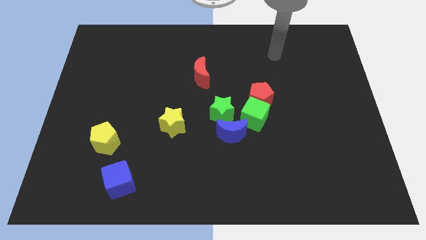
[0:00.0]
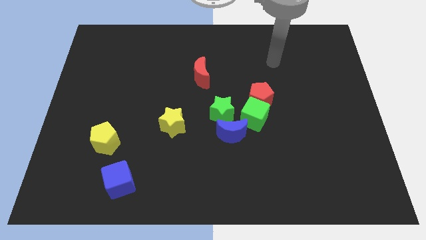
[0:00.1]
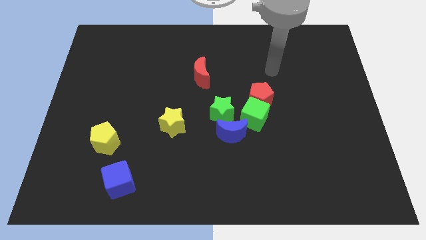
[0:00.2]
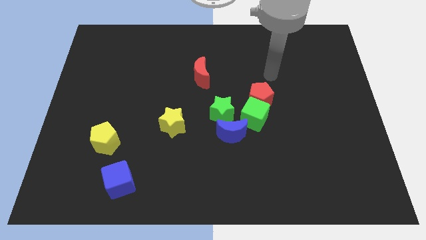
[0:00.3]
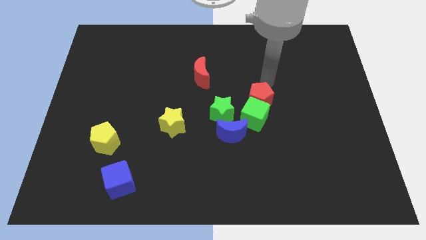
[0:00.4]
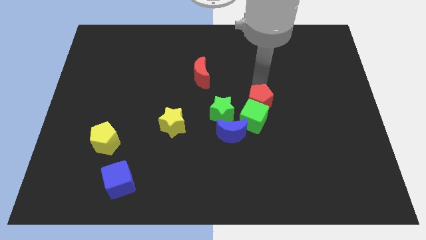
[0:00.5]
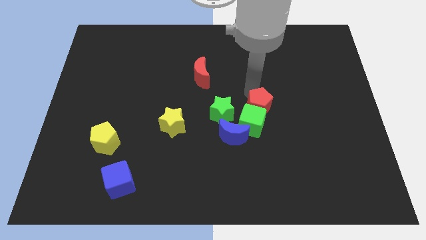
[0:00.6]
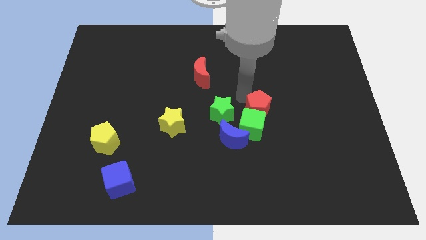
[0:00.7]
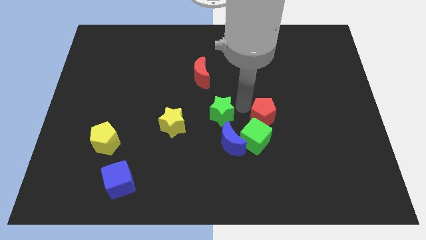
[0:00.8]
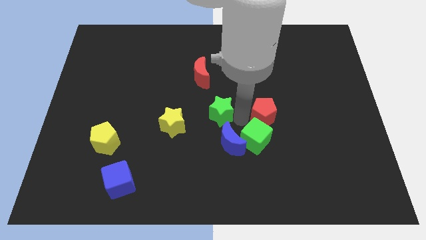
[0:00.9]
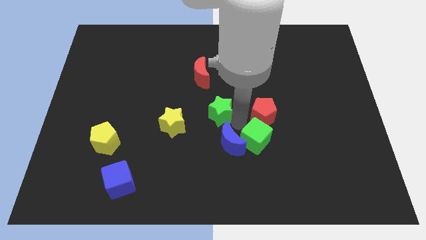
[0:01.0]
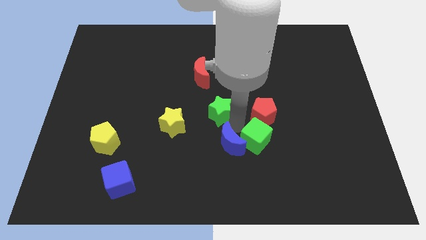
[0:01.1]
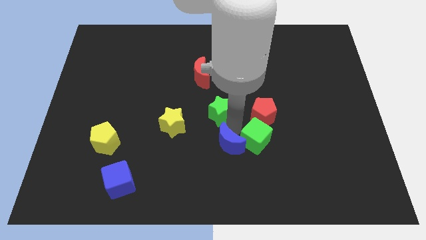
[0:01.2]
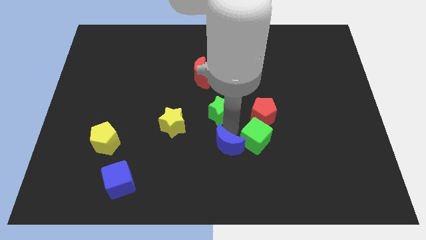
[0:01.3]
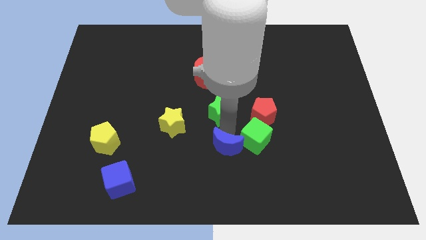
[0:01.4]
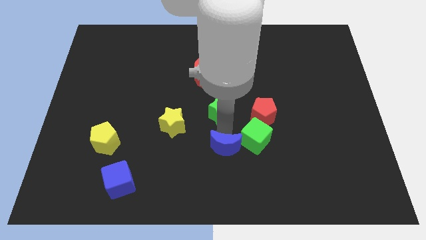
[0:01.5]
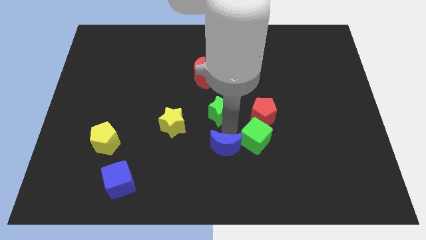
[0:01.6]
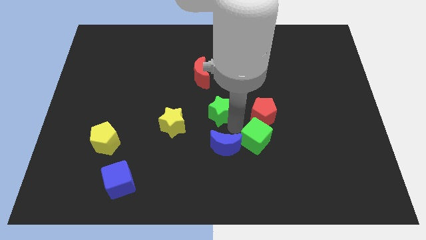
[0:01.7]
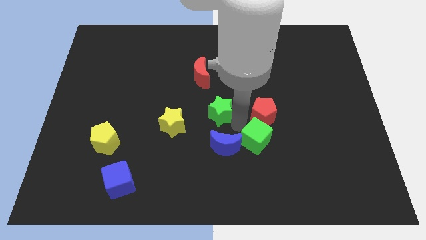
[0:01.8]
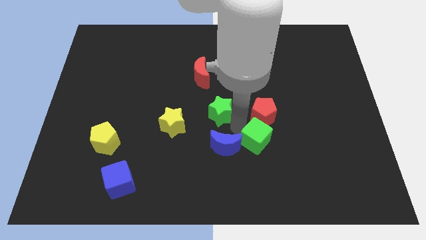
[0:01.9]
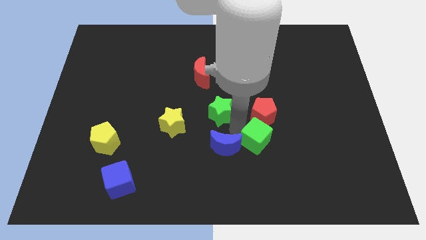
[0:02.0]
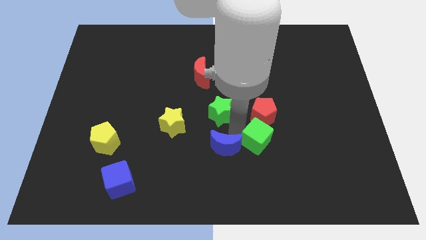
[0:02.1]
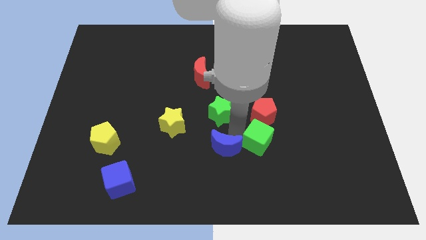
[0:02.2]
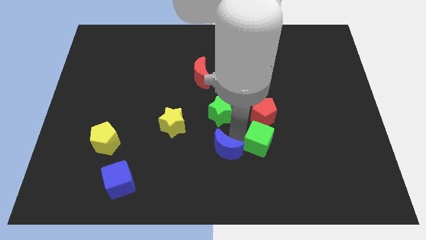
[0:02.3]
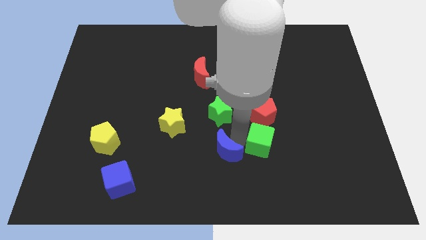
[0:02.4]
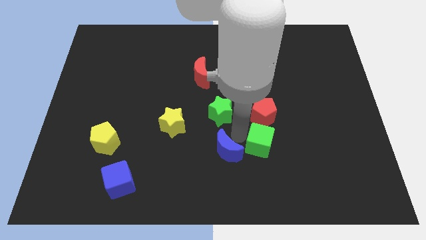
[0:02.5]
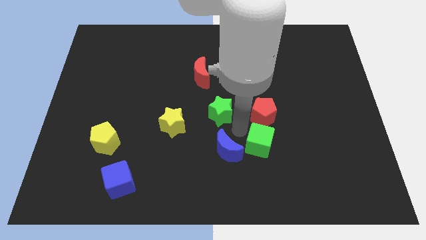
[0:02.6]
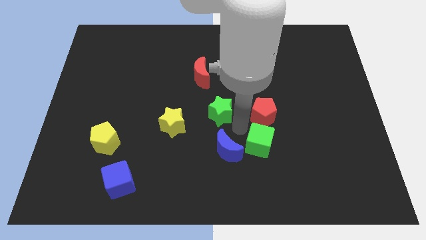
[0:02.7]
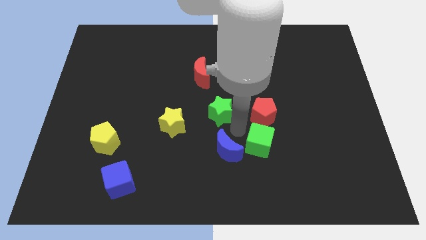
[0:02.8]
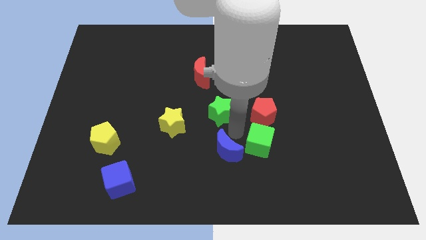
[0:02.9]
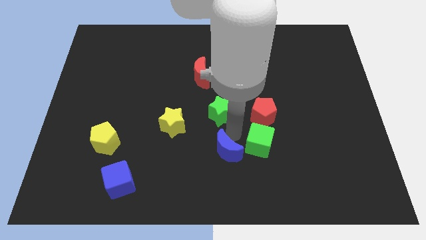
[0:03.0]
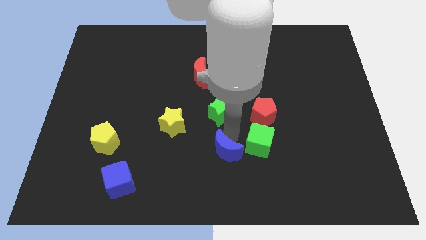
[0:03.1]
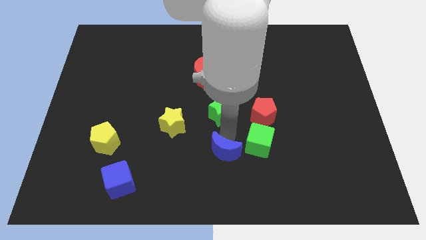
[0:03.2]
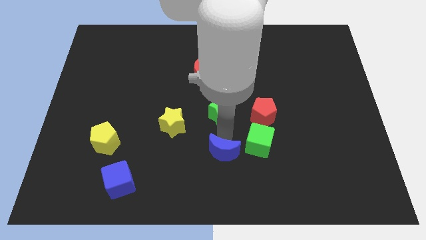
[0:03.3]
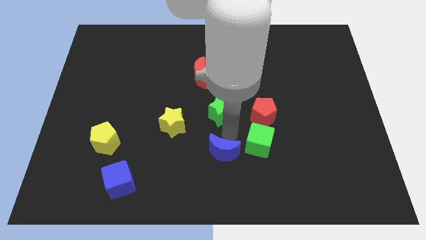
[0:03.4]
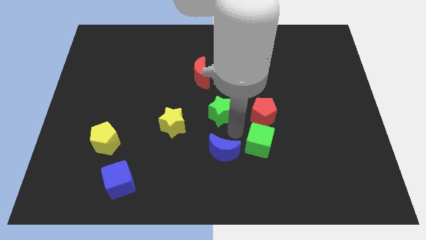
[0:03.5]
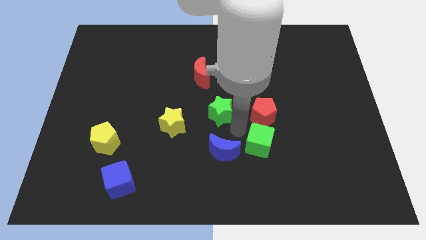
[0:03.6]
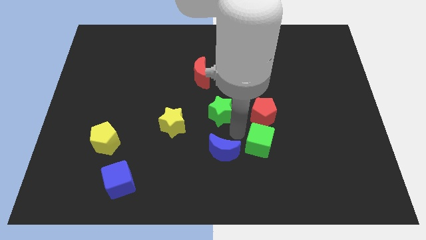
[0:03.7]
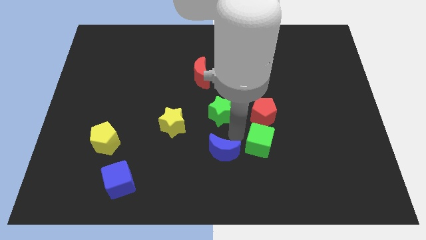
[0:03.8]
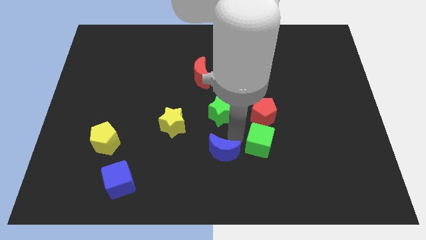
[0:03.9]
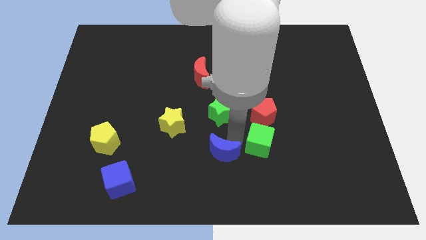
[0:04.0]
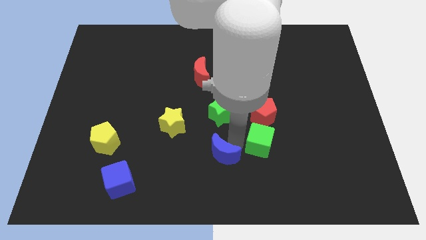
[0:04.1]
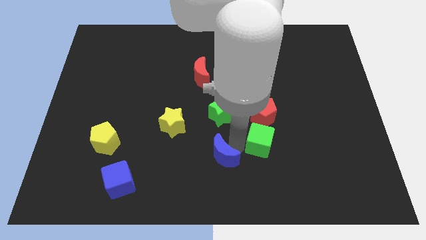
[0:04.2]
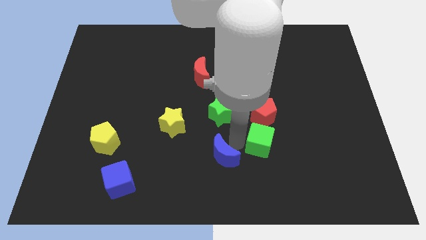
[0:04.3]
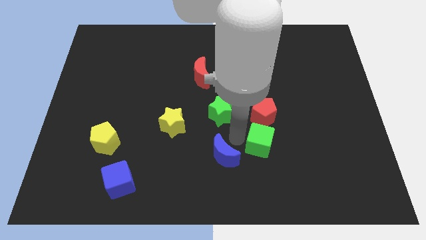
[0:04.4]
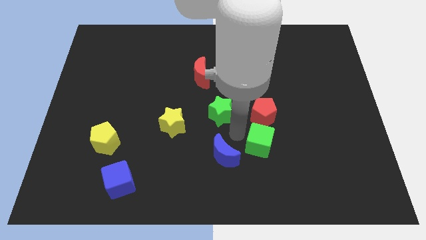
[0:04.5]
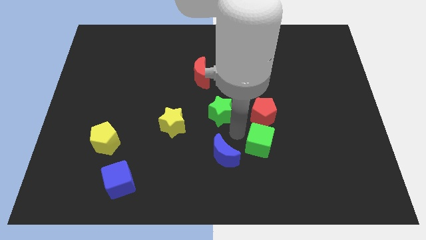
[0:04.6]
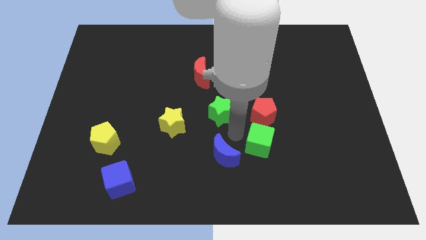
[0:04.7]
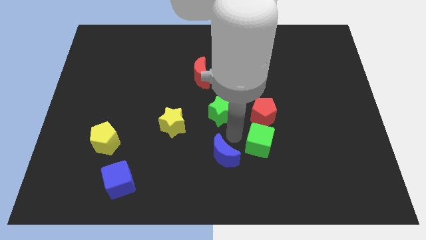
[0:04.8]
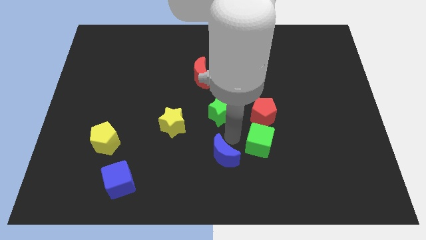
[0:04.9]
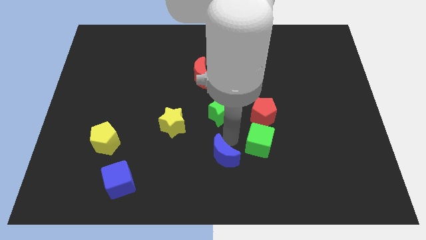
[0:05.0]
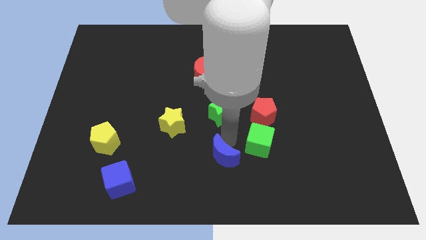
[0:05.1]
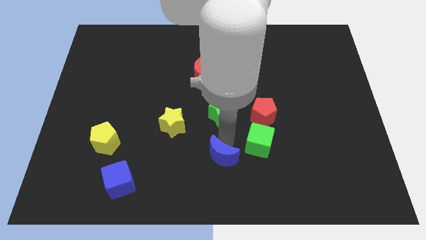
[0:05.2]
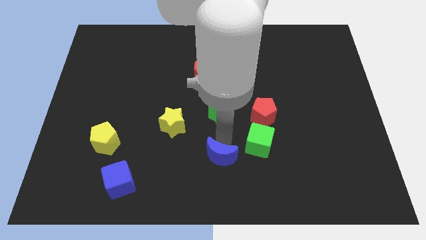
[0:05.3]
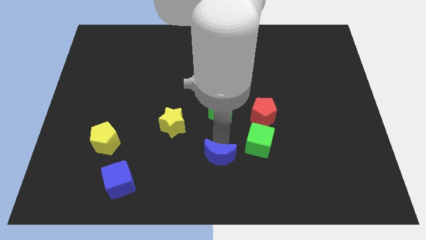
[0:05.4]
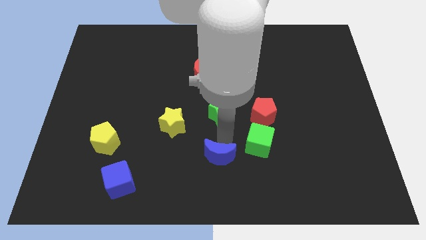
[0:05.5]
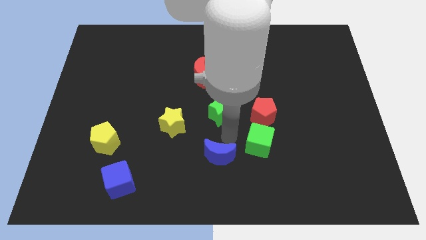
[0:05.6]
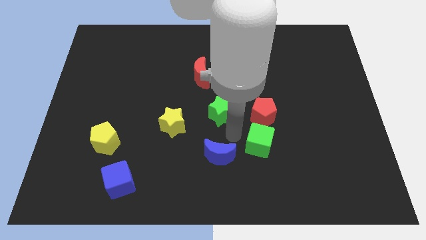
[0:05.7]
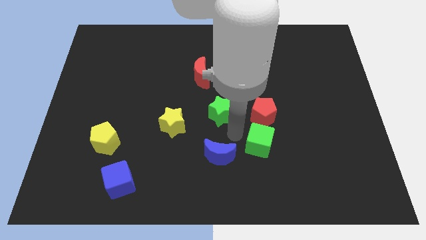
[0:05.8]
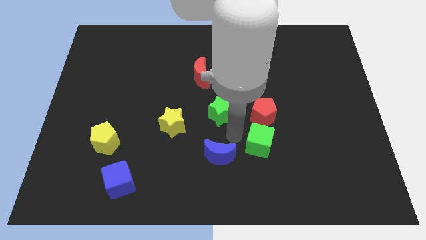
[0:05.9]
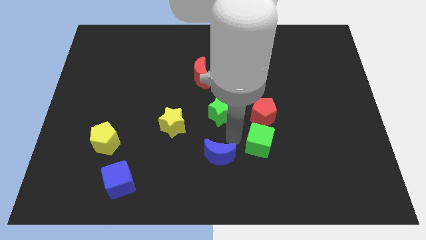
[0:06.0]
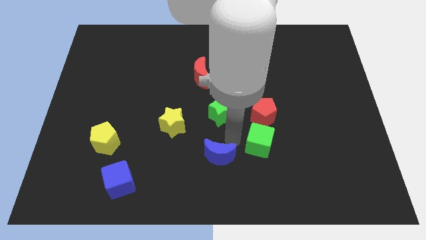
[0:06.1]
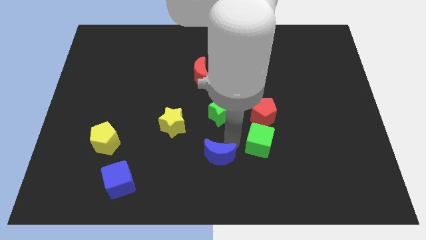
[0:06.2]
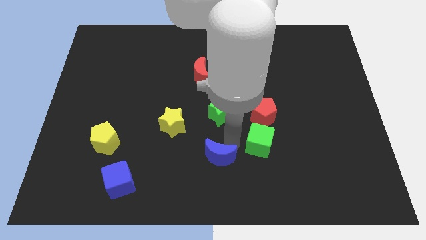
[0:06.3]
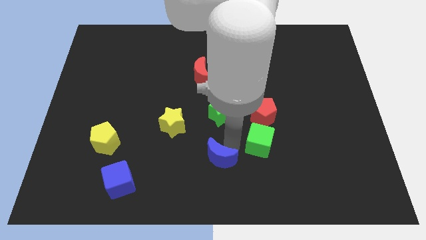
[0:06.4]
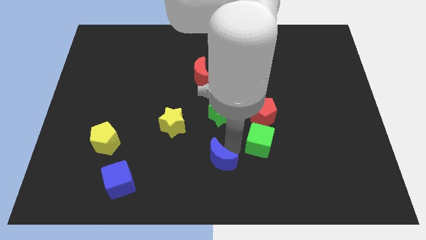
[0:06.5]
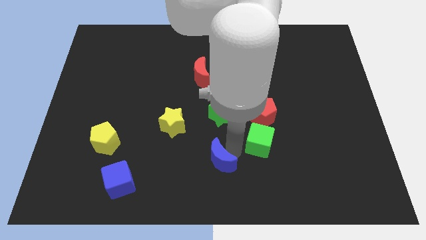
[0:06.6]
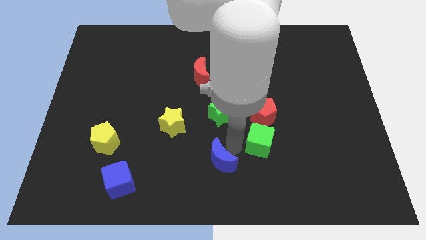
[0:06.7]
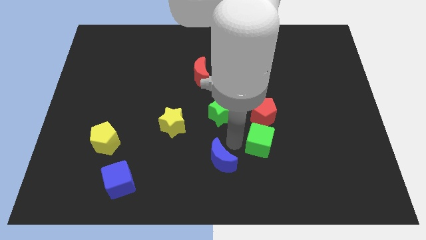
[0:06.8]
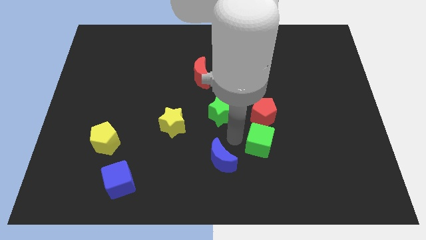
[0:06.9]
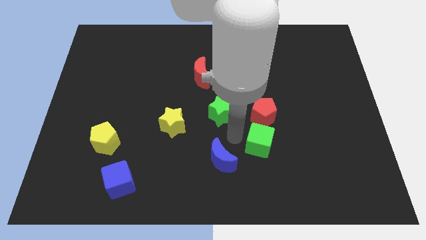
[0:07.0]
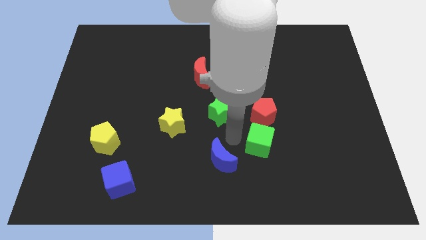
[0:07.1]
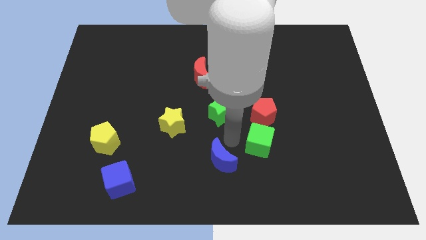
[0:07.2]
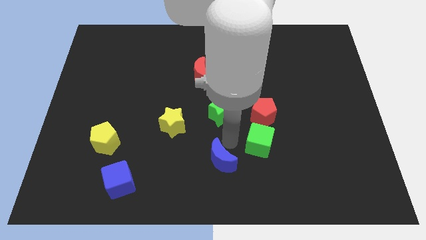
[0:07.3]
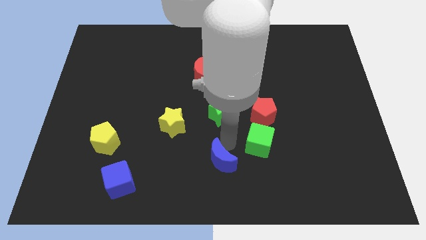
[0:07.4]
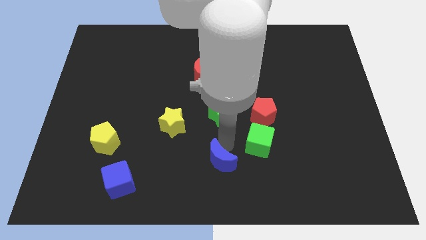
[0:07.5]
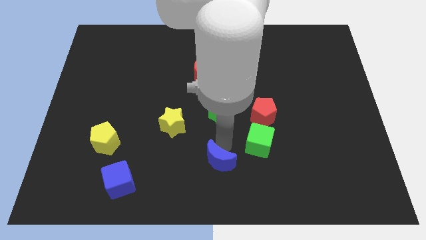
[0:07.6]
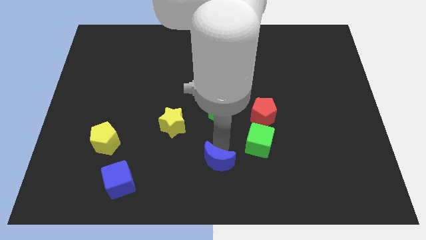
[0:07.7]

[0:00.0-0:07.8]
move the blue moon away from the green star and green cube

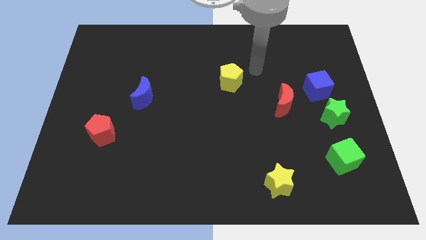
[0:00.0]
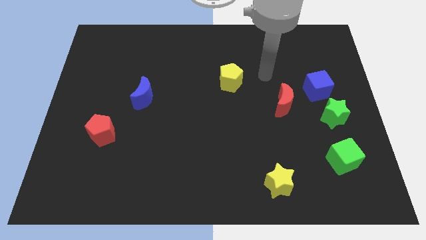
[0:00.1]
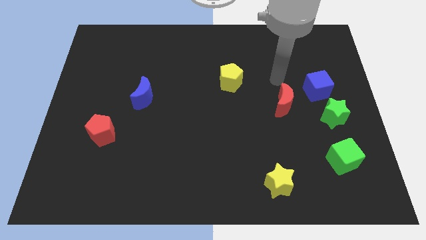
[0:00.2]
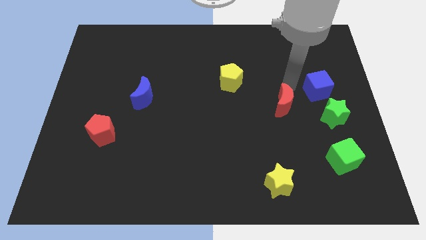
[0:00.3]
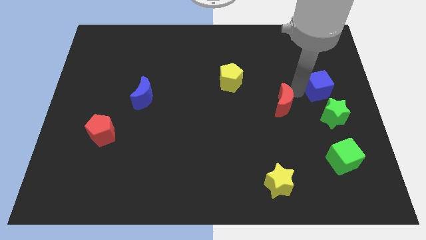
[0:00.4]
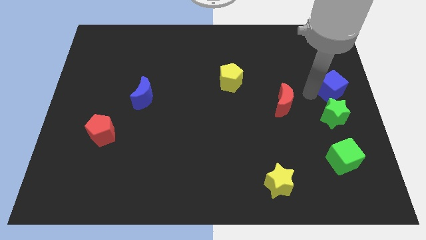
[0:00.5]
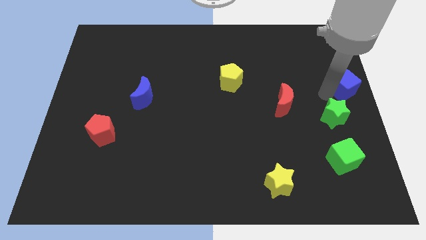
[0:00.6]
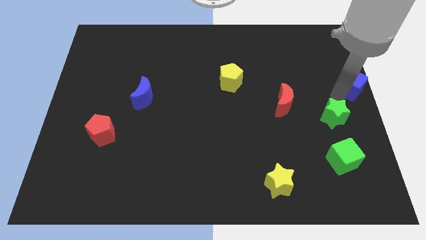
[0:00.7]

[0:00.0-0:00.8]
move the green star away from the blue cube

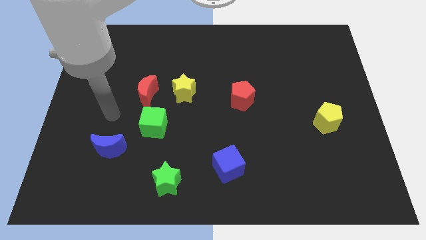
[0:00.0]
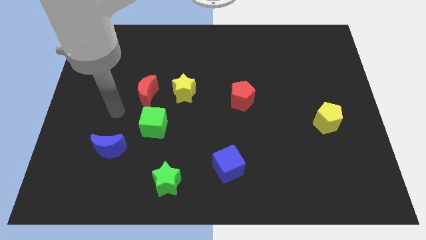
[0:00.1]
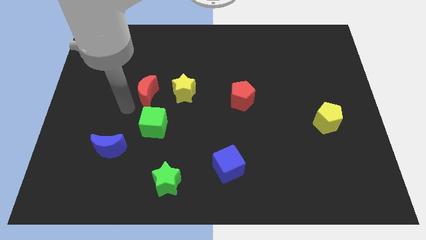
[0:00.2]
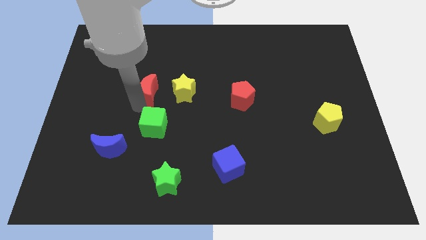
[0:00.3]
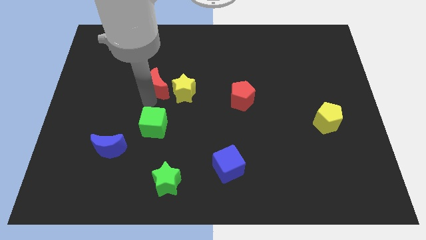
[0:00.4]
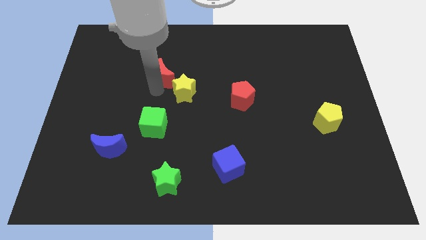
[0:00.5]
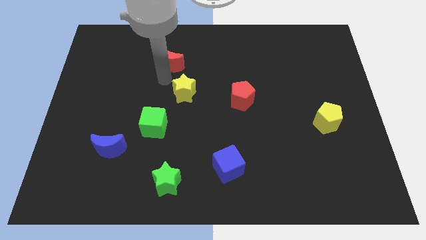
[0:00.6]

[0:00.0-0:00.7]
pull the yellow star apart from the red moon

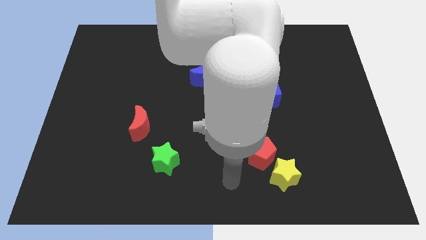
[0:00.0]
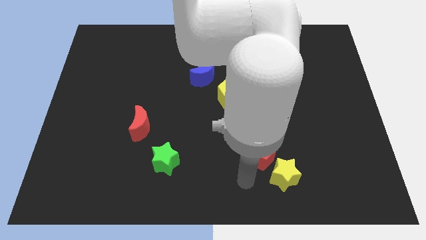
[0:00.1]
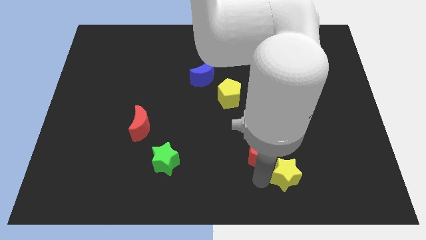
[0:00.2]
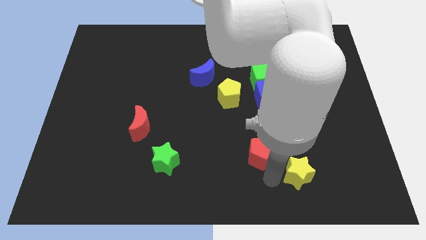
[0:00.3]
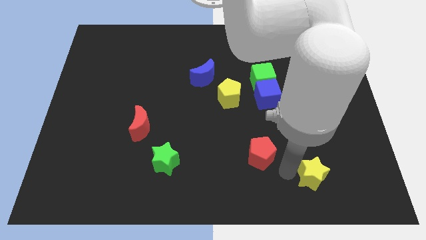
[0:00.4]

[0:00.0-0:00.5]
separate the red pentagon from the yellow star
